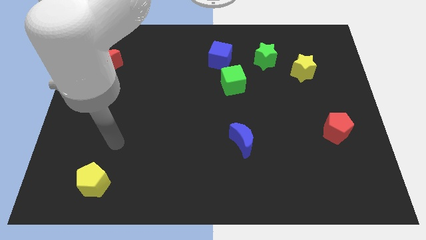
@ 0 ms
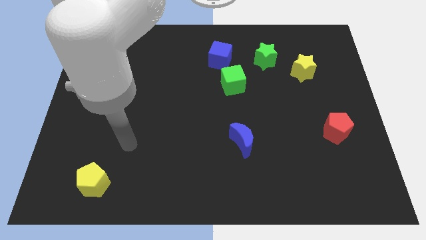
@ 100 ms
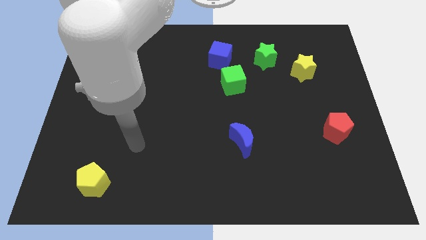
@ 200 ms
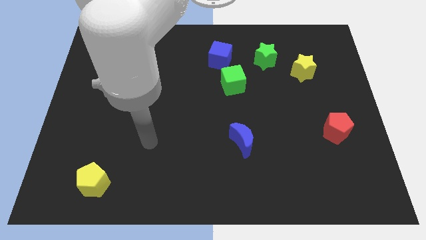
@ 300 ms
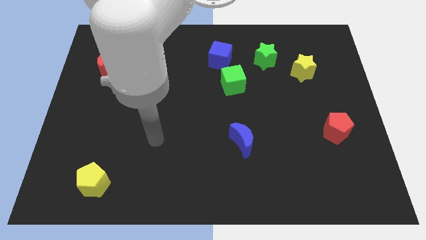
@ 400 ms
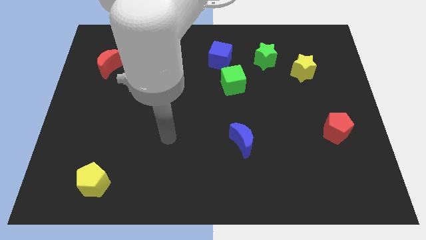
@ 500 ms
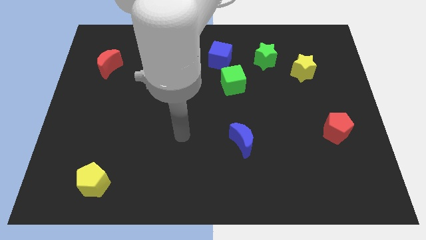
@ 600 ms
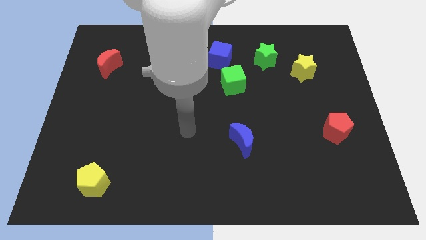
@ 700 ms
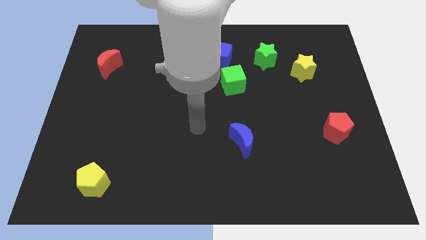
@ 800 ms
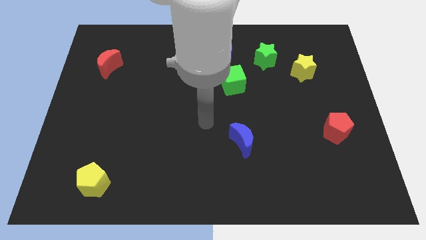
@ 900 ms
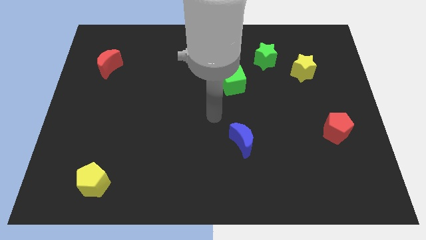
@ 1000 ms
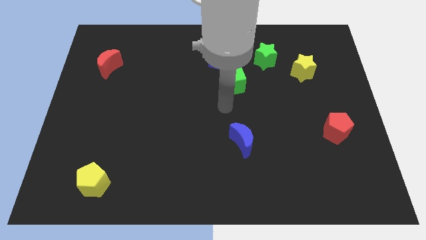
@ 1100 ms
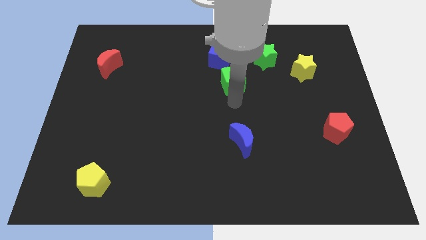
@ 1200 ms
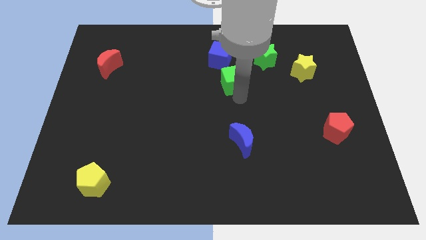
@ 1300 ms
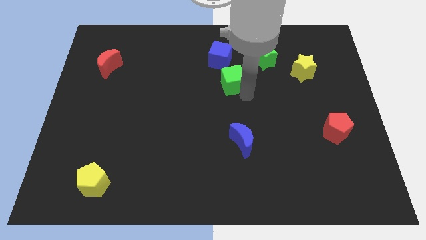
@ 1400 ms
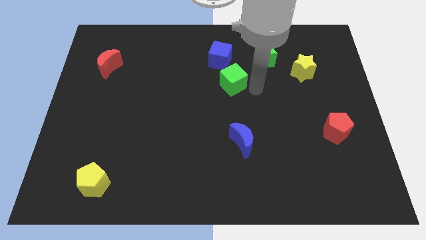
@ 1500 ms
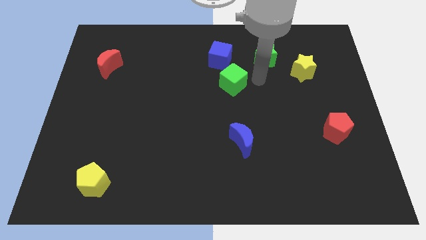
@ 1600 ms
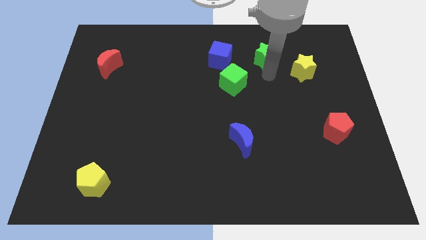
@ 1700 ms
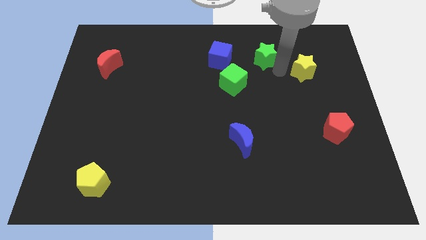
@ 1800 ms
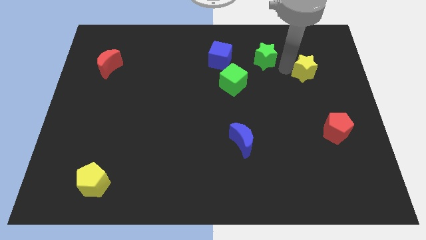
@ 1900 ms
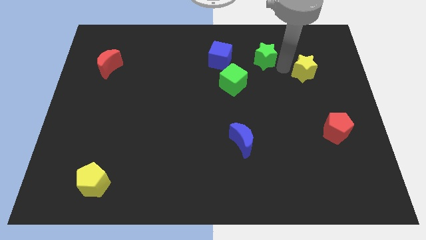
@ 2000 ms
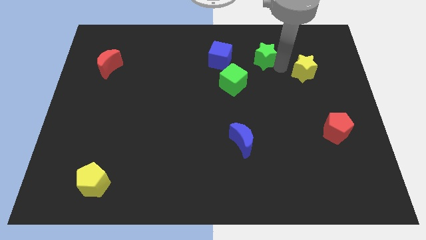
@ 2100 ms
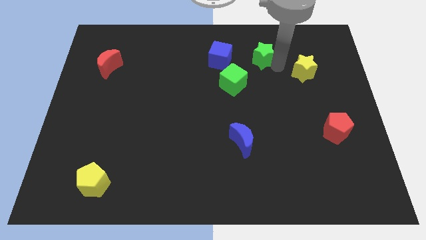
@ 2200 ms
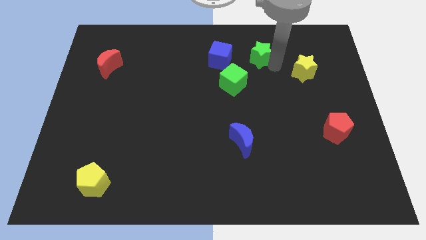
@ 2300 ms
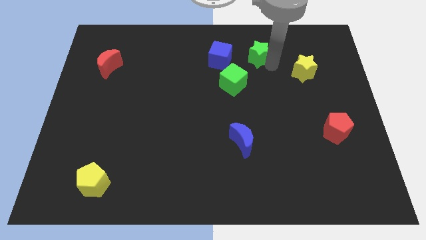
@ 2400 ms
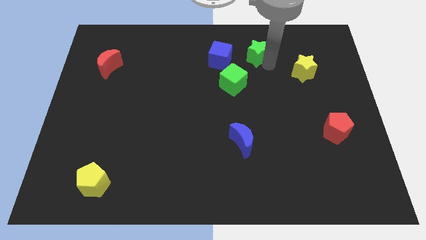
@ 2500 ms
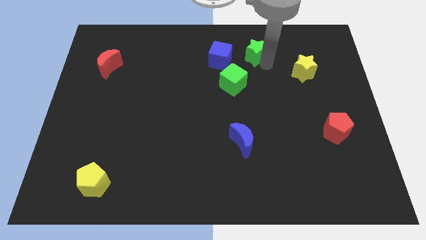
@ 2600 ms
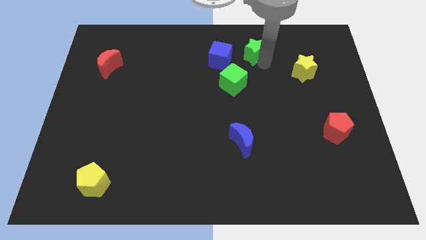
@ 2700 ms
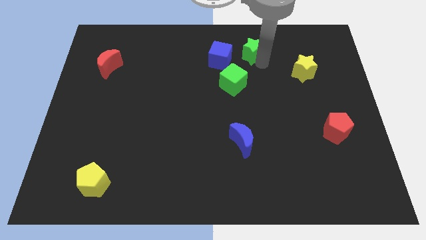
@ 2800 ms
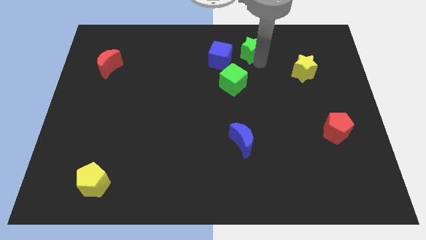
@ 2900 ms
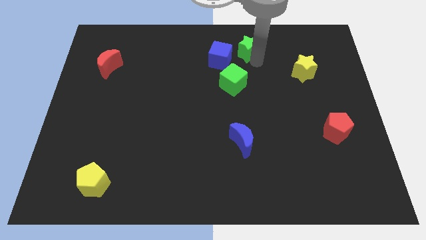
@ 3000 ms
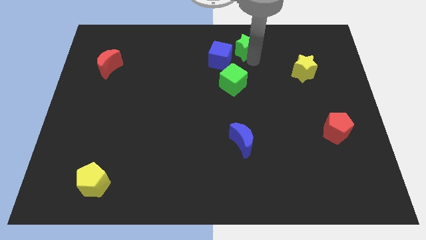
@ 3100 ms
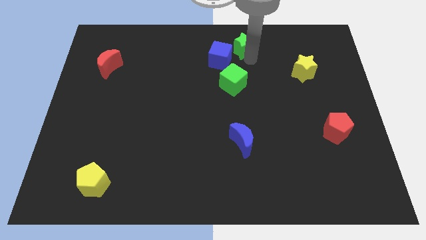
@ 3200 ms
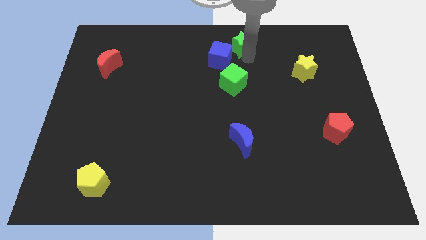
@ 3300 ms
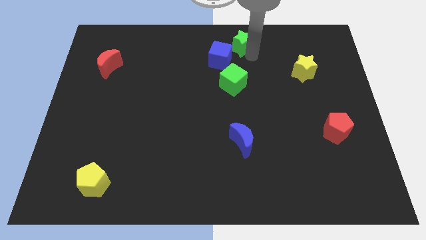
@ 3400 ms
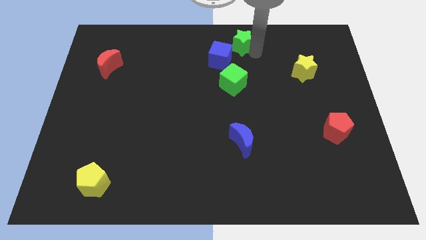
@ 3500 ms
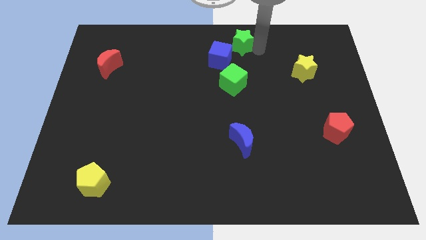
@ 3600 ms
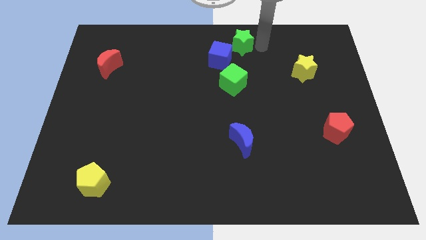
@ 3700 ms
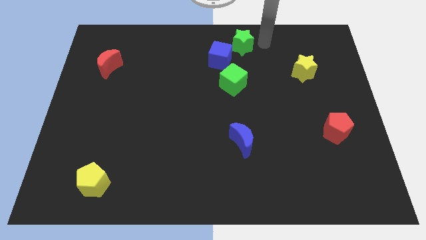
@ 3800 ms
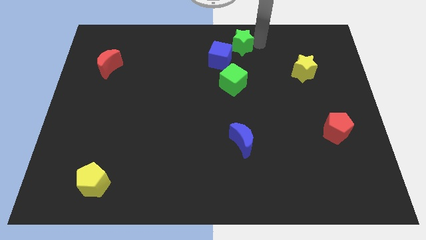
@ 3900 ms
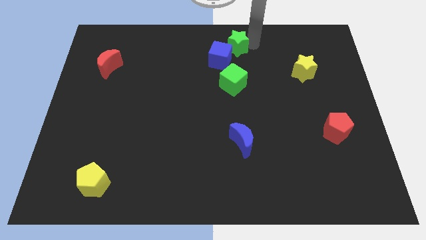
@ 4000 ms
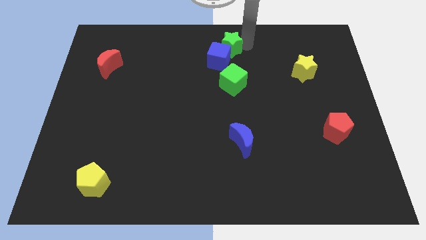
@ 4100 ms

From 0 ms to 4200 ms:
slightly slide the green star to the left

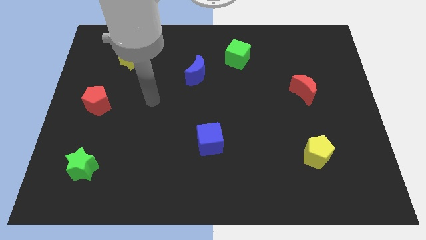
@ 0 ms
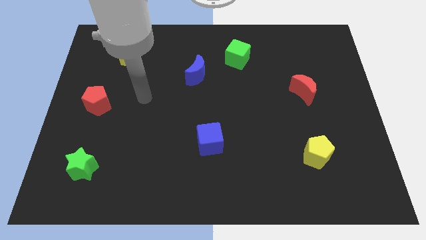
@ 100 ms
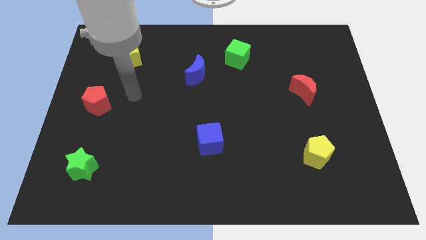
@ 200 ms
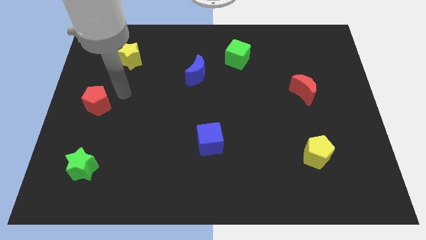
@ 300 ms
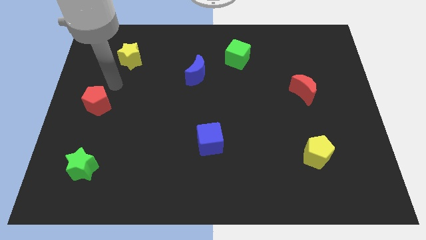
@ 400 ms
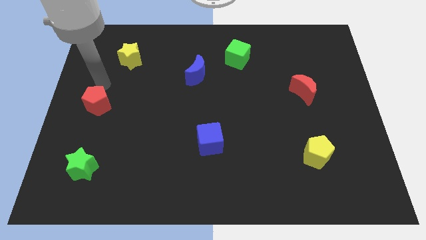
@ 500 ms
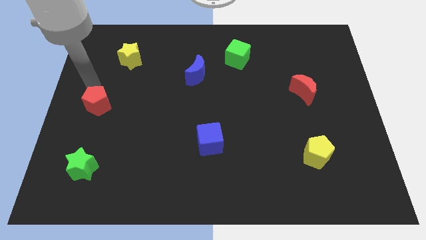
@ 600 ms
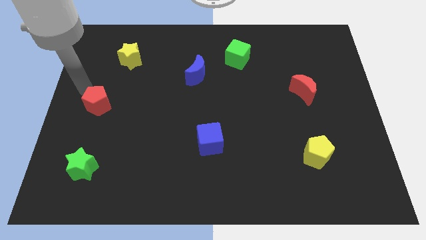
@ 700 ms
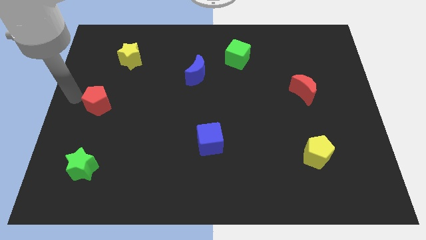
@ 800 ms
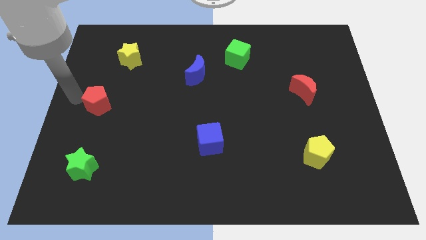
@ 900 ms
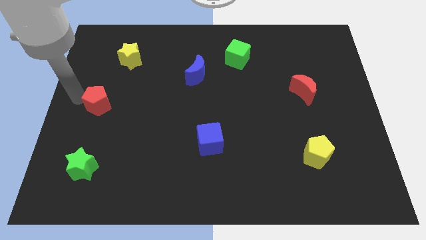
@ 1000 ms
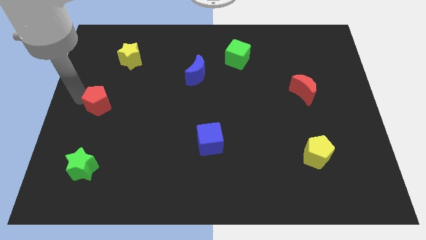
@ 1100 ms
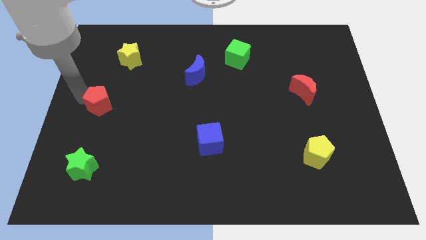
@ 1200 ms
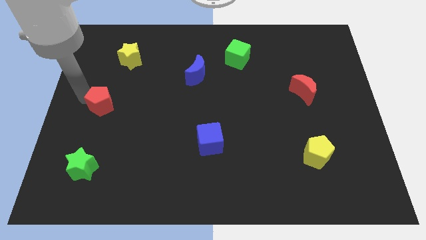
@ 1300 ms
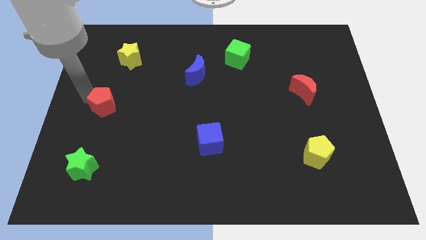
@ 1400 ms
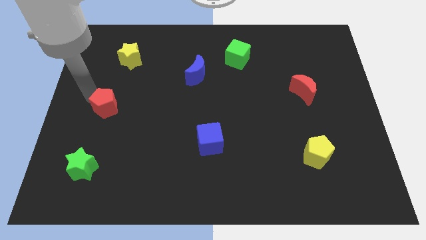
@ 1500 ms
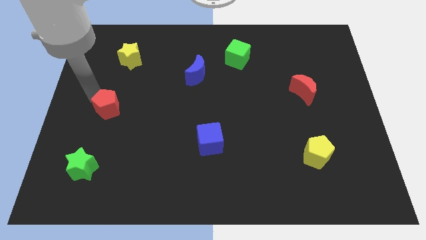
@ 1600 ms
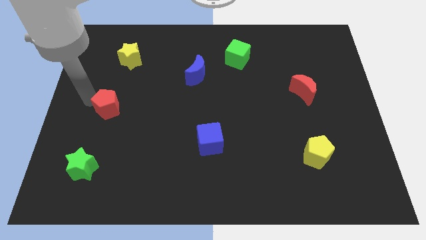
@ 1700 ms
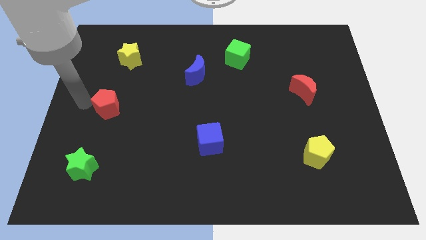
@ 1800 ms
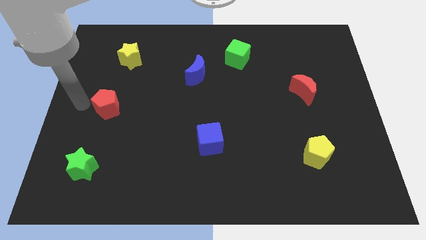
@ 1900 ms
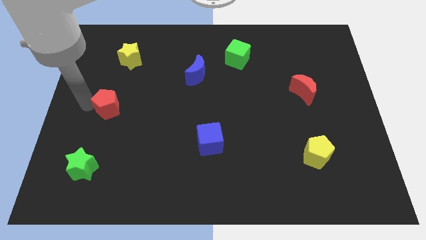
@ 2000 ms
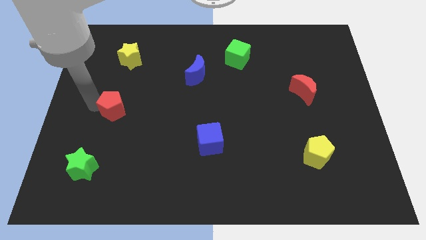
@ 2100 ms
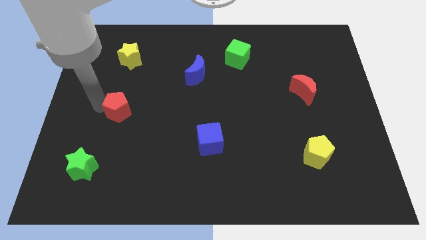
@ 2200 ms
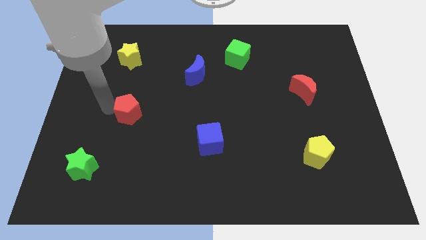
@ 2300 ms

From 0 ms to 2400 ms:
push the red pentagon a little bit right

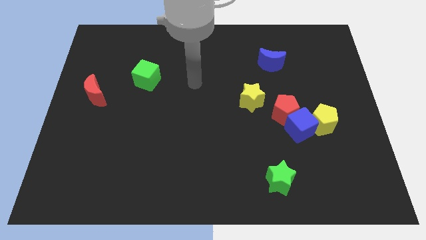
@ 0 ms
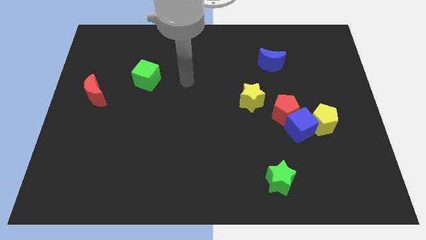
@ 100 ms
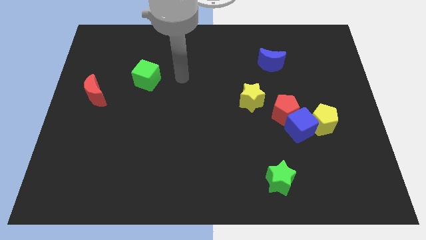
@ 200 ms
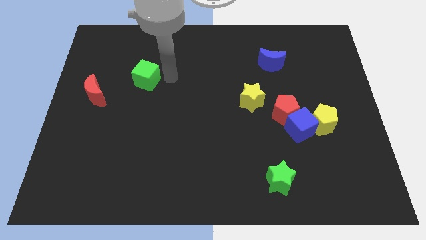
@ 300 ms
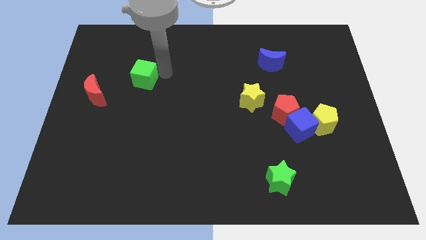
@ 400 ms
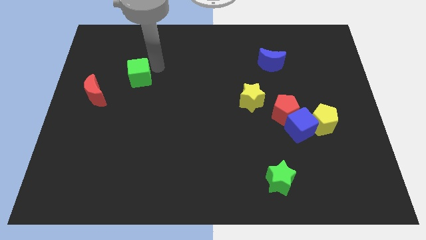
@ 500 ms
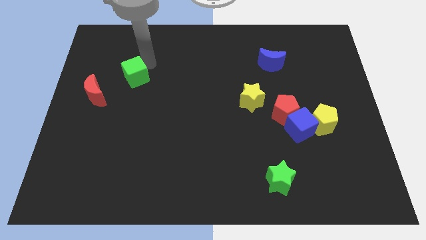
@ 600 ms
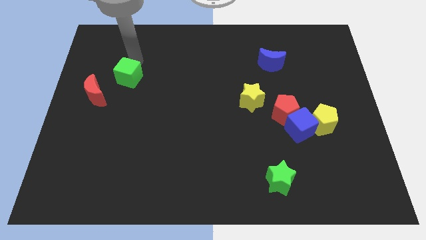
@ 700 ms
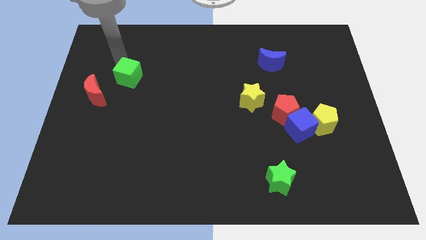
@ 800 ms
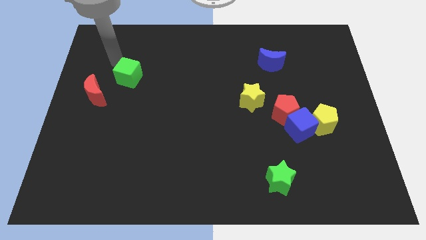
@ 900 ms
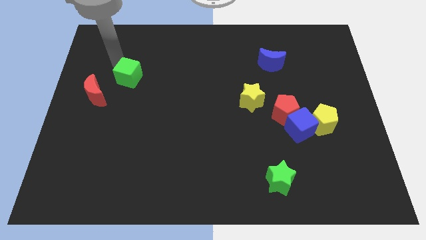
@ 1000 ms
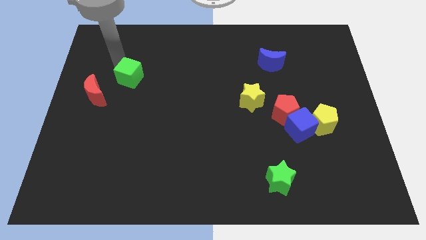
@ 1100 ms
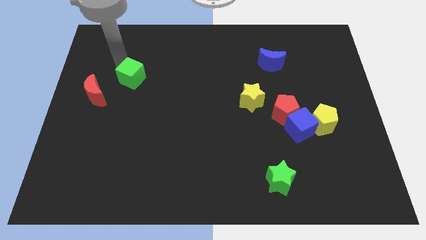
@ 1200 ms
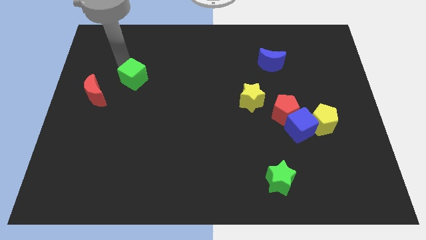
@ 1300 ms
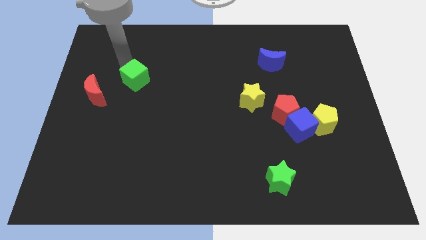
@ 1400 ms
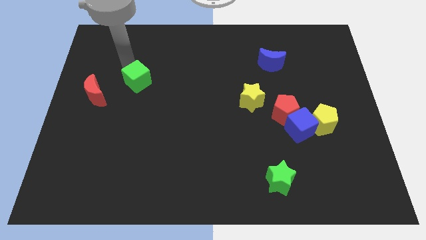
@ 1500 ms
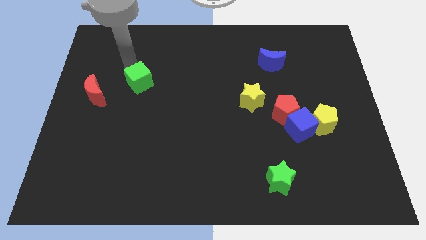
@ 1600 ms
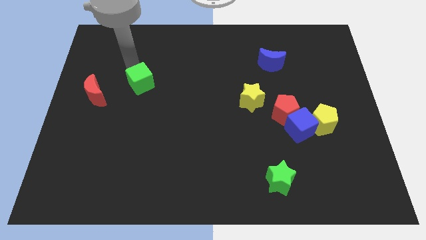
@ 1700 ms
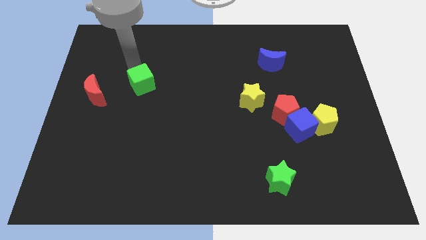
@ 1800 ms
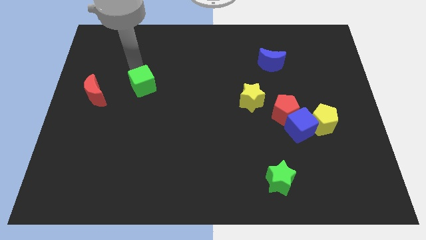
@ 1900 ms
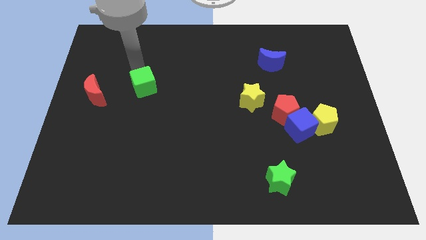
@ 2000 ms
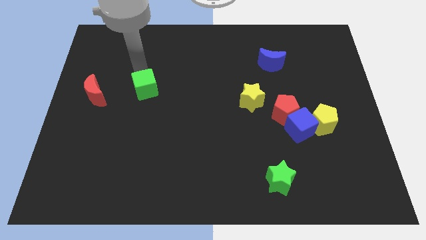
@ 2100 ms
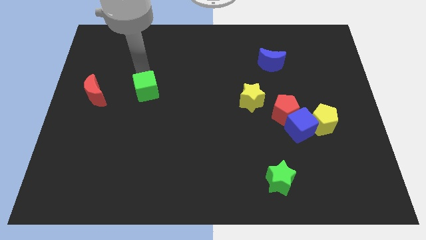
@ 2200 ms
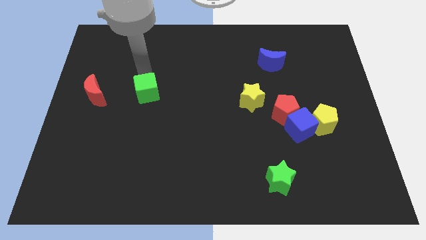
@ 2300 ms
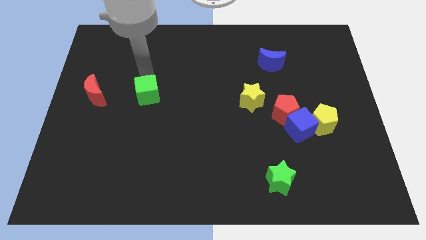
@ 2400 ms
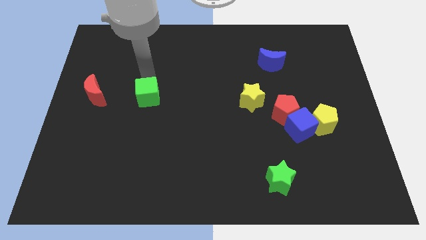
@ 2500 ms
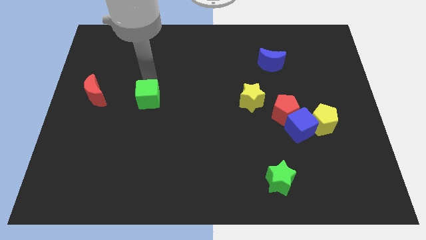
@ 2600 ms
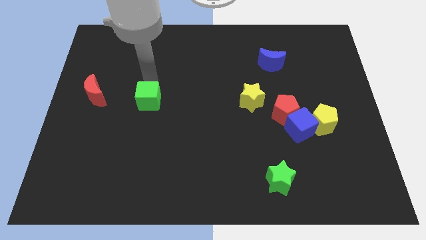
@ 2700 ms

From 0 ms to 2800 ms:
move the green cube downwards a little bit
